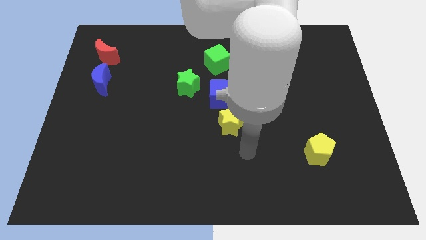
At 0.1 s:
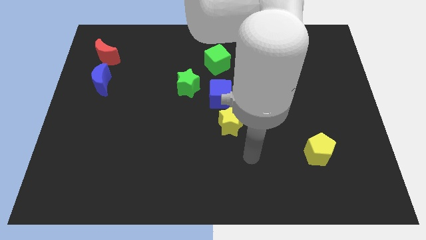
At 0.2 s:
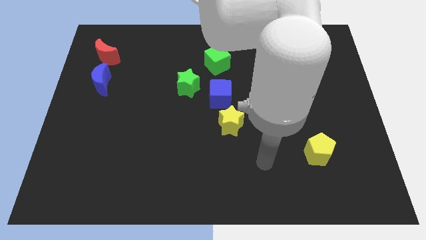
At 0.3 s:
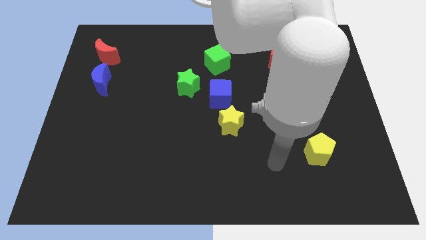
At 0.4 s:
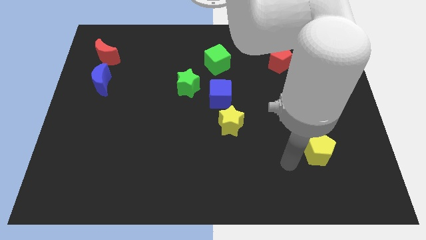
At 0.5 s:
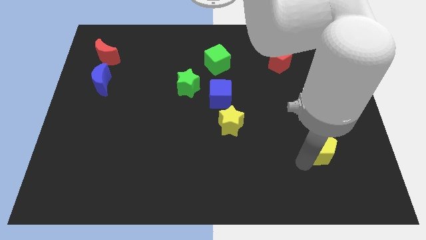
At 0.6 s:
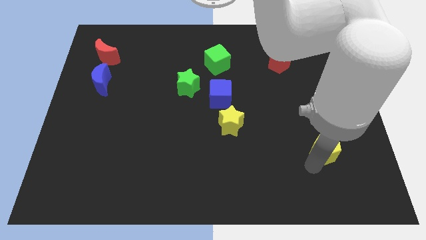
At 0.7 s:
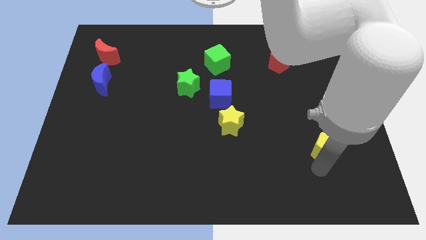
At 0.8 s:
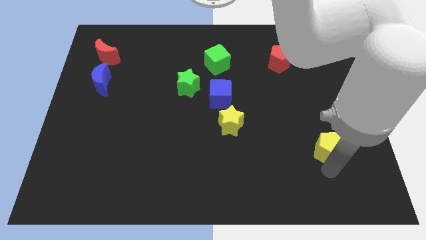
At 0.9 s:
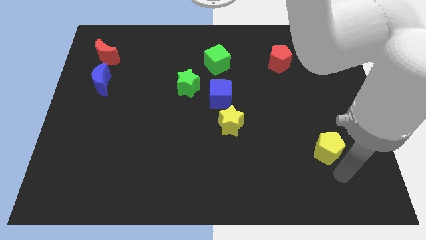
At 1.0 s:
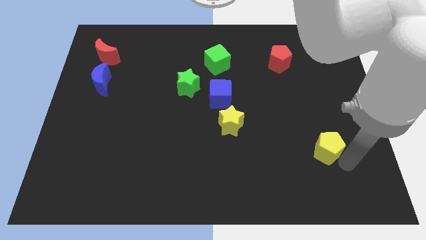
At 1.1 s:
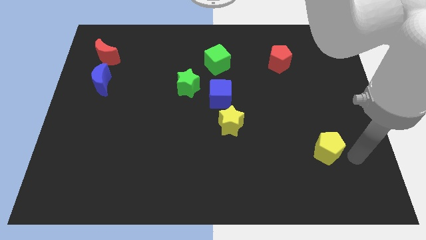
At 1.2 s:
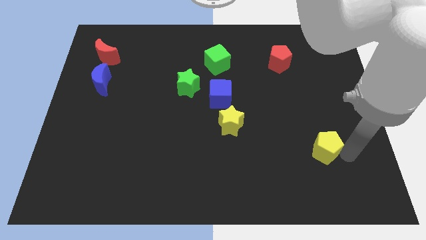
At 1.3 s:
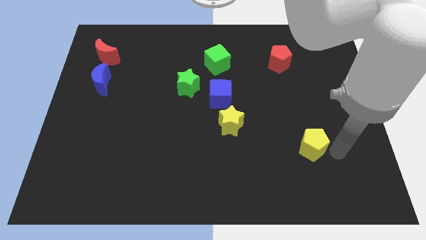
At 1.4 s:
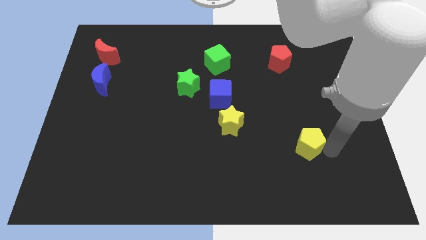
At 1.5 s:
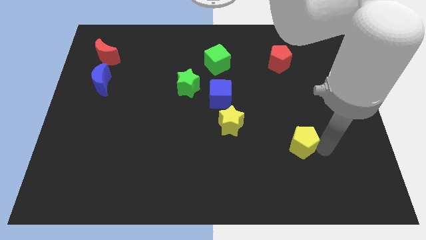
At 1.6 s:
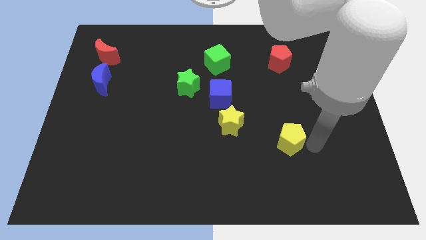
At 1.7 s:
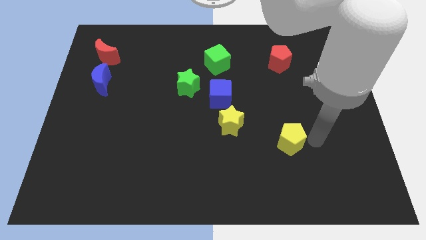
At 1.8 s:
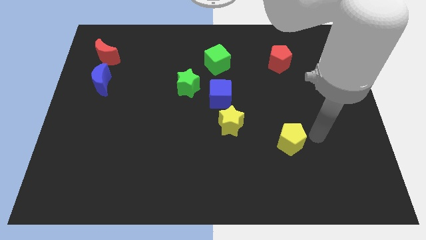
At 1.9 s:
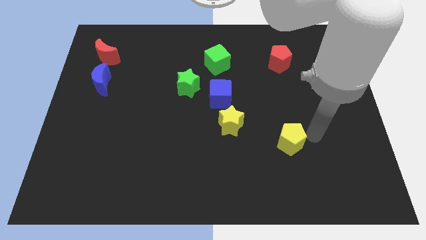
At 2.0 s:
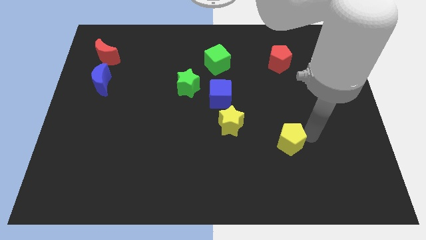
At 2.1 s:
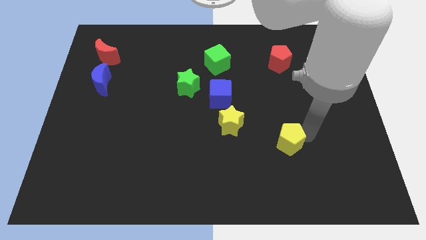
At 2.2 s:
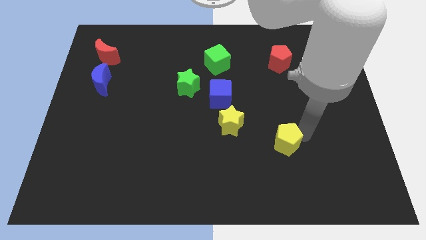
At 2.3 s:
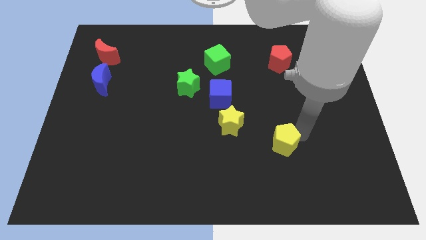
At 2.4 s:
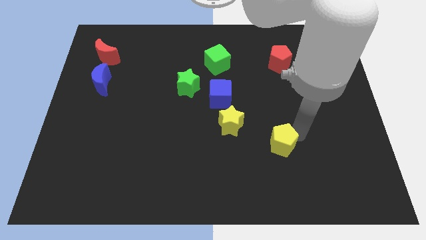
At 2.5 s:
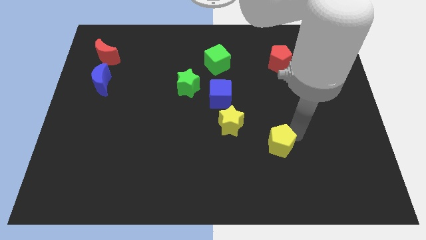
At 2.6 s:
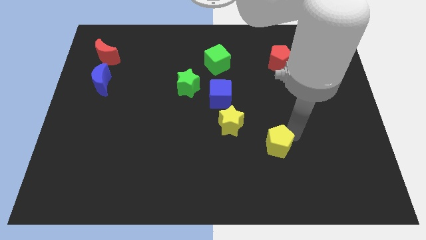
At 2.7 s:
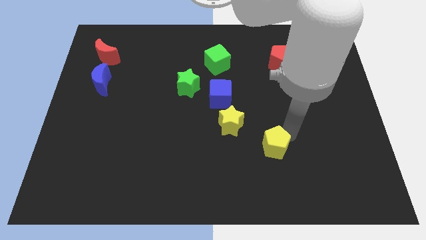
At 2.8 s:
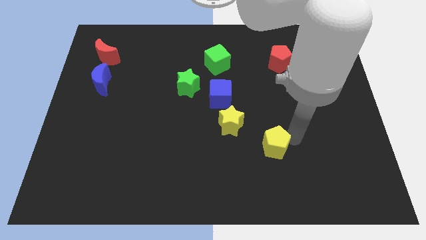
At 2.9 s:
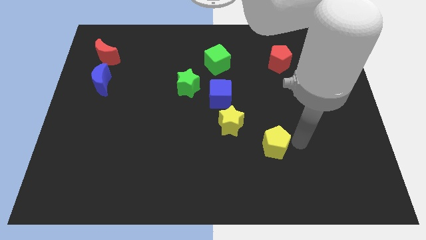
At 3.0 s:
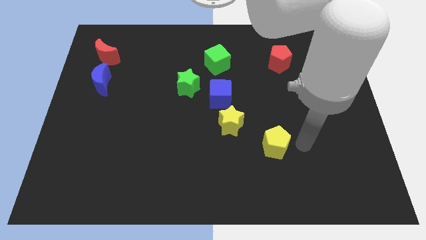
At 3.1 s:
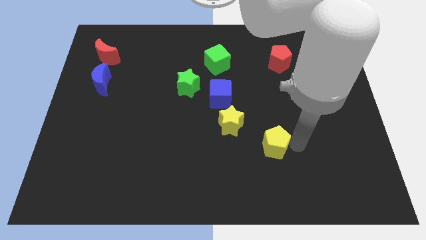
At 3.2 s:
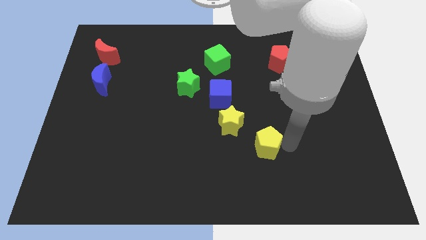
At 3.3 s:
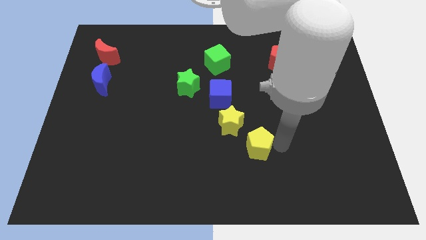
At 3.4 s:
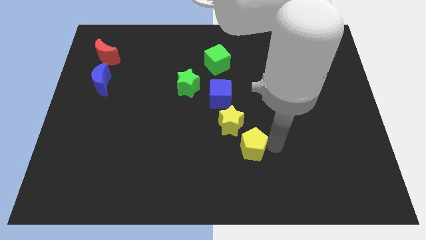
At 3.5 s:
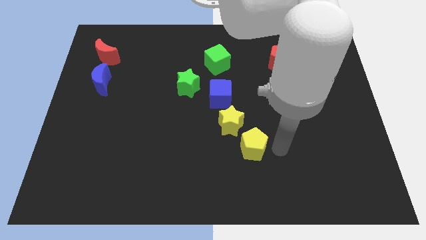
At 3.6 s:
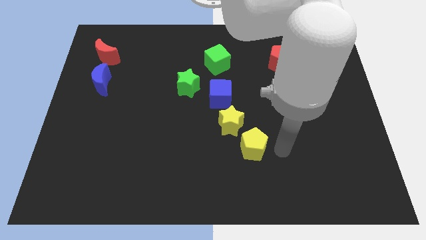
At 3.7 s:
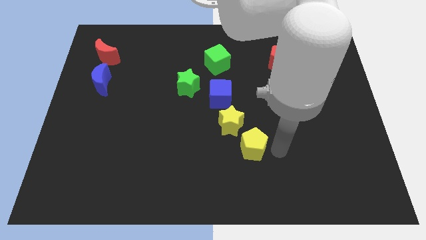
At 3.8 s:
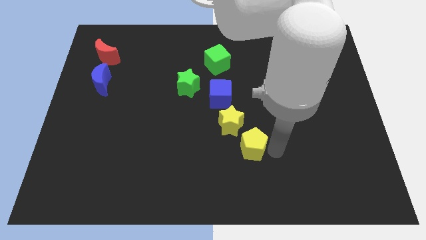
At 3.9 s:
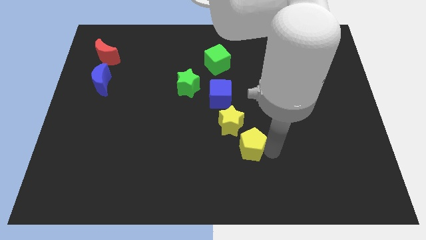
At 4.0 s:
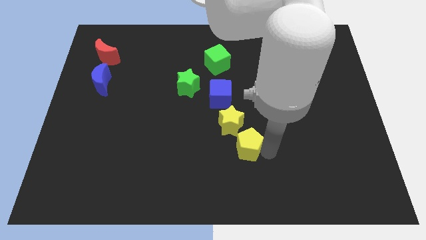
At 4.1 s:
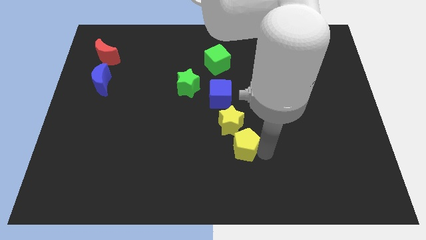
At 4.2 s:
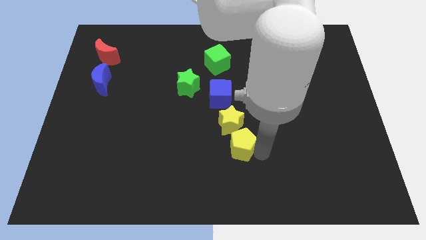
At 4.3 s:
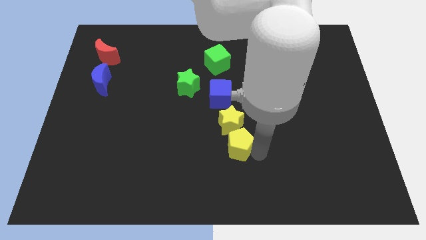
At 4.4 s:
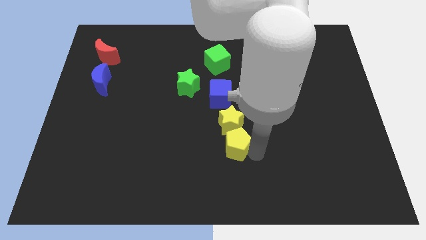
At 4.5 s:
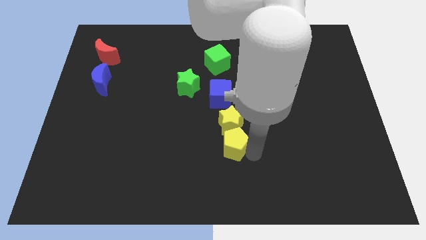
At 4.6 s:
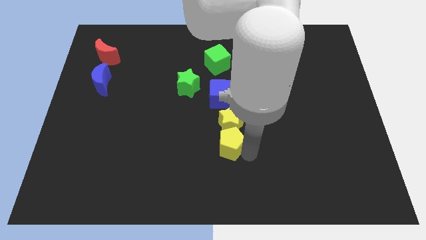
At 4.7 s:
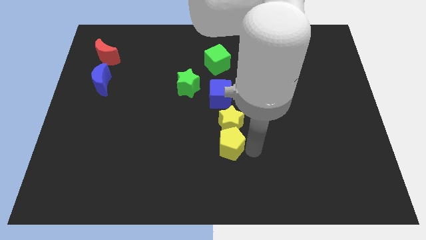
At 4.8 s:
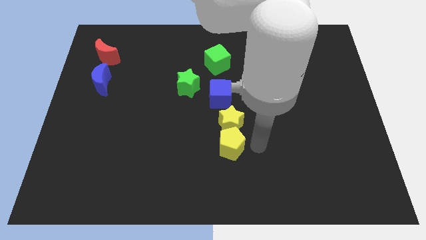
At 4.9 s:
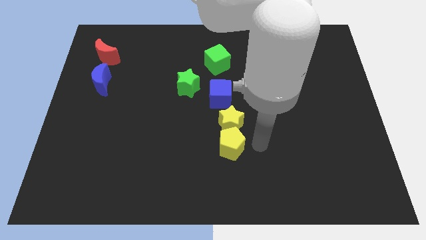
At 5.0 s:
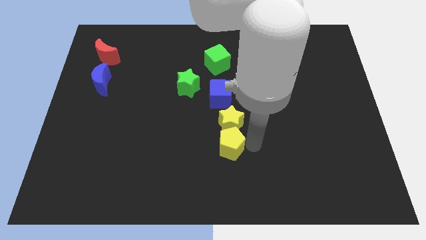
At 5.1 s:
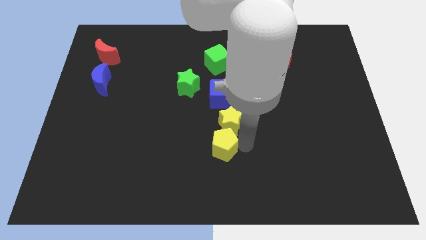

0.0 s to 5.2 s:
slide the yellow pentagon left

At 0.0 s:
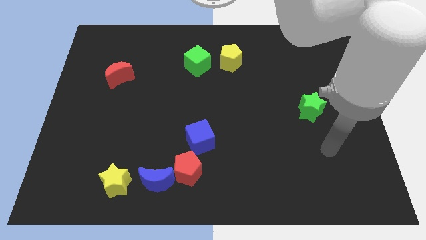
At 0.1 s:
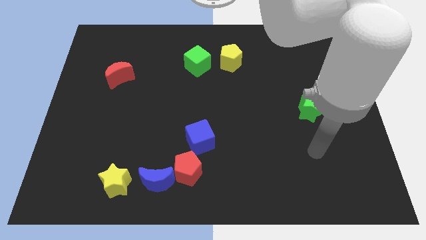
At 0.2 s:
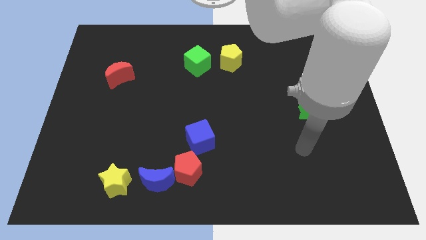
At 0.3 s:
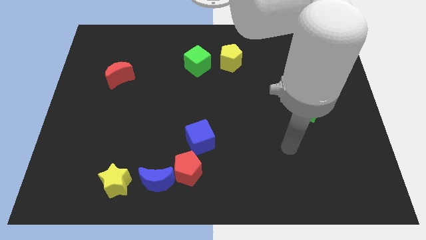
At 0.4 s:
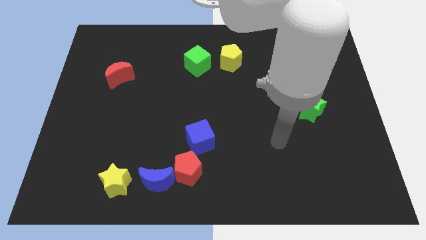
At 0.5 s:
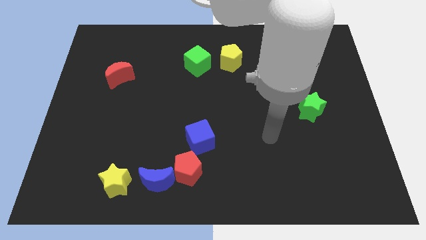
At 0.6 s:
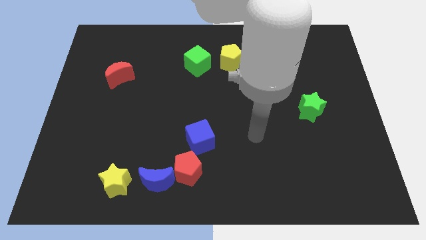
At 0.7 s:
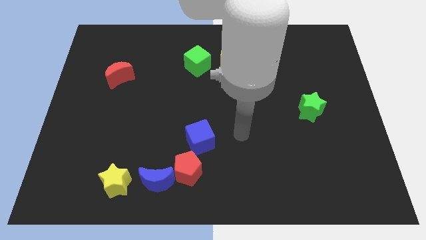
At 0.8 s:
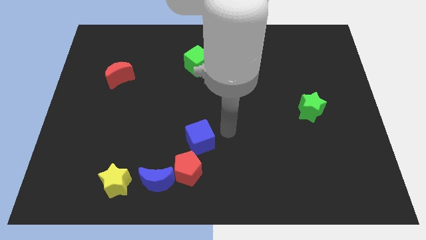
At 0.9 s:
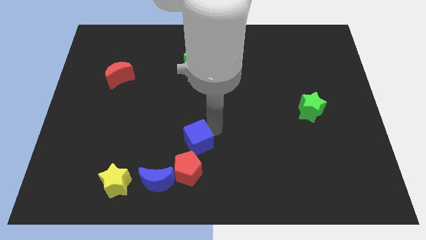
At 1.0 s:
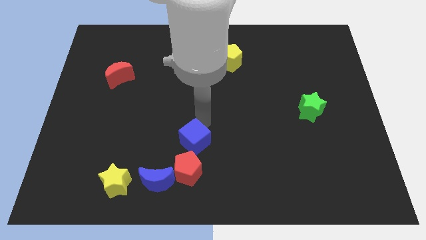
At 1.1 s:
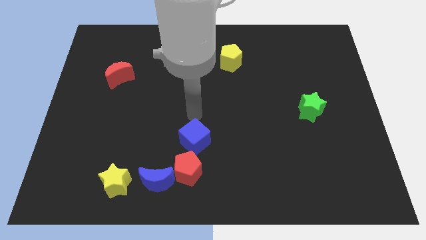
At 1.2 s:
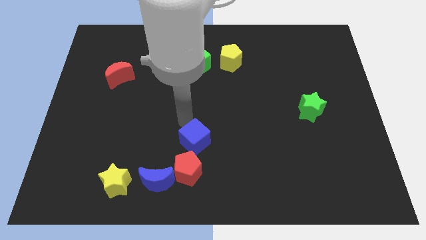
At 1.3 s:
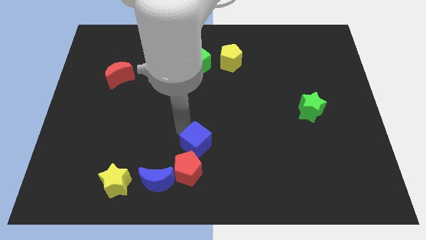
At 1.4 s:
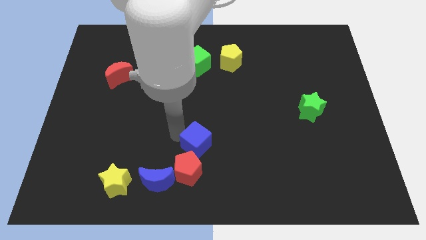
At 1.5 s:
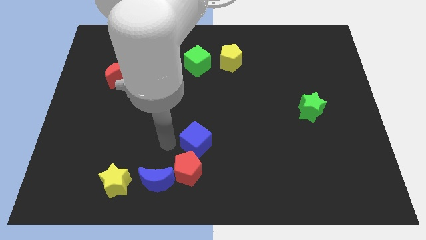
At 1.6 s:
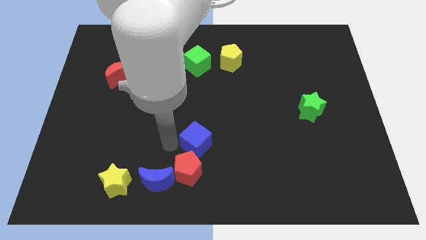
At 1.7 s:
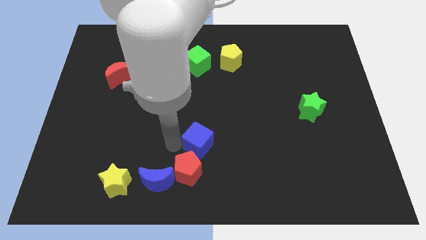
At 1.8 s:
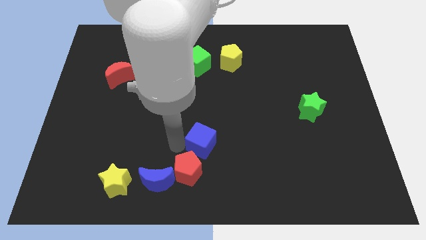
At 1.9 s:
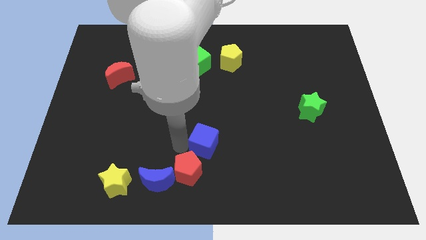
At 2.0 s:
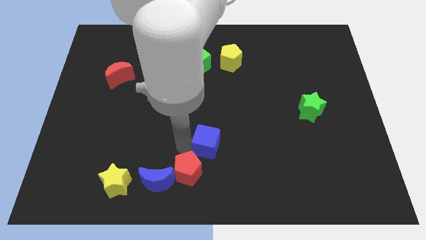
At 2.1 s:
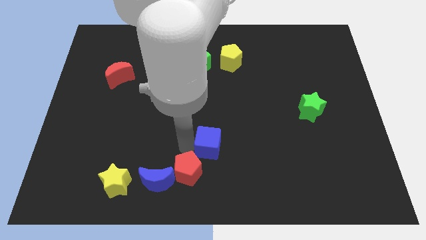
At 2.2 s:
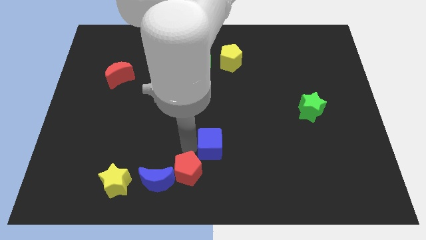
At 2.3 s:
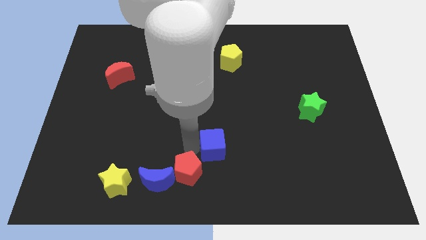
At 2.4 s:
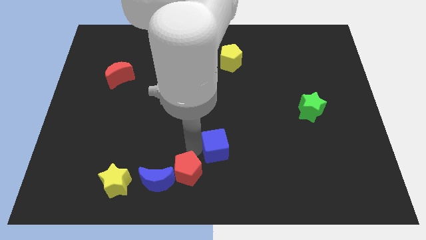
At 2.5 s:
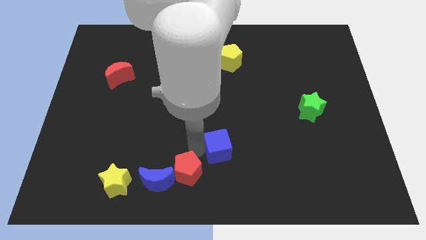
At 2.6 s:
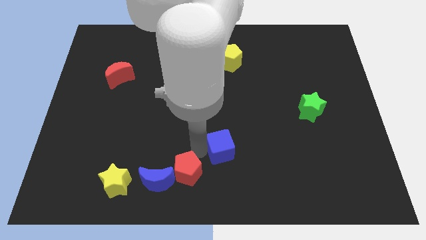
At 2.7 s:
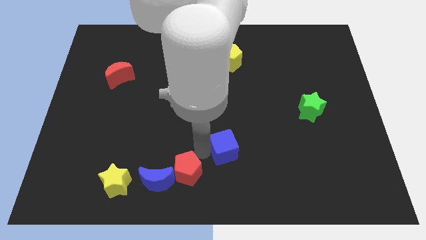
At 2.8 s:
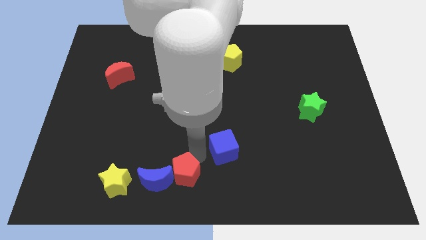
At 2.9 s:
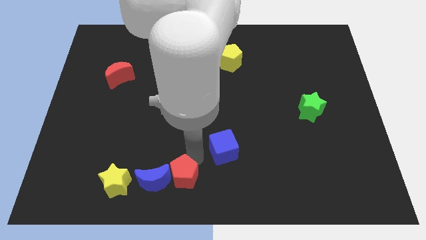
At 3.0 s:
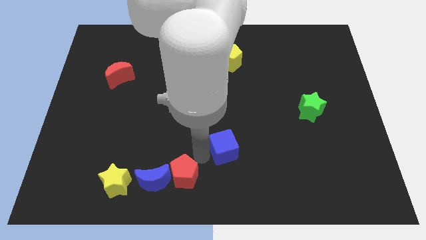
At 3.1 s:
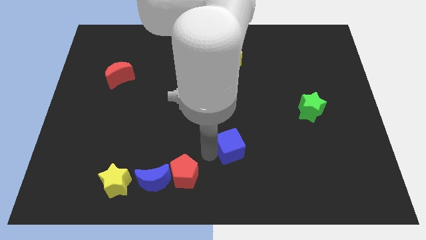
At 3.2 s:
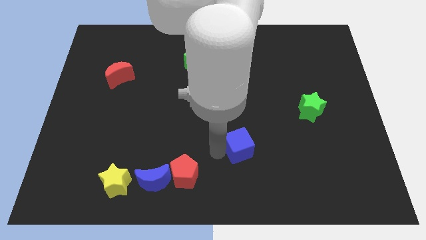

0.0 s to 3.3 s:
slightly push the blue cube to the right
